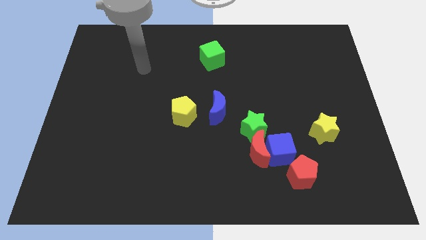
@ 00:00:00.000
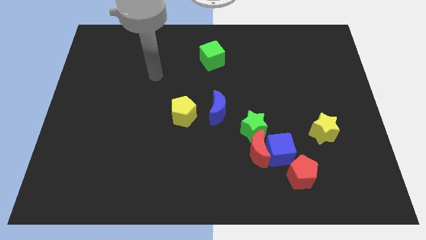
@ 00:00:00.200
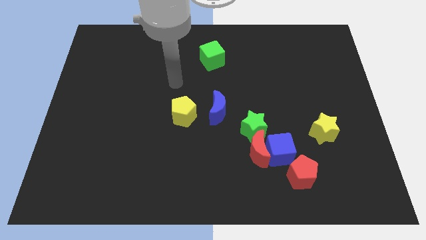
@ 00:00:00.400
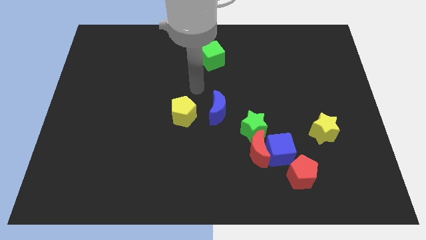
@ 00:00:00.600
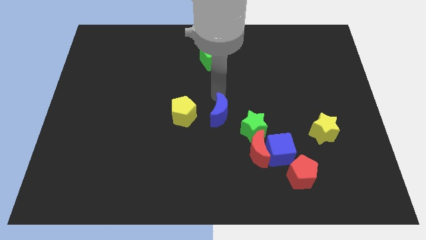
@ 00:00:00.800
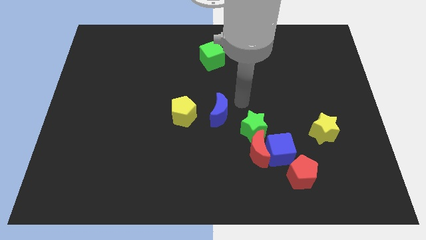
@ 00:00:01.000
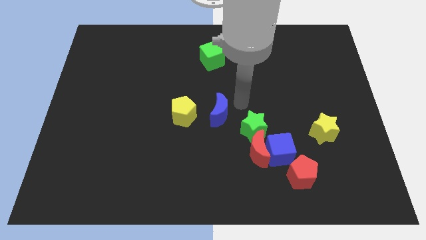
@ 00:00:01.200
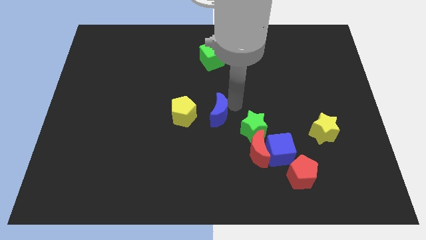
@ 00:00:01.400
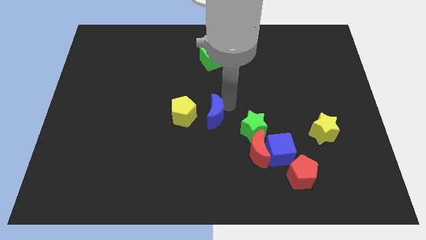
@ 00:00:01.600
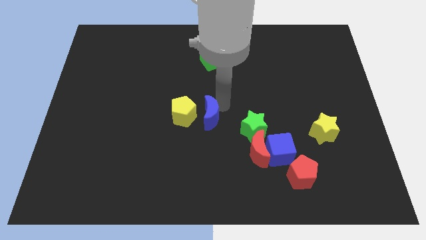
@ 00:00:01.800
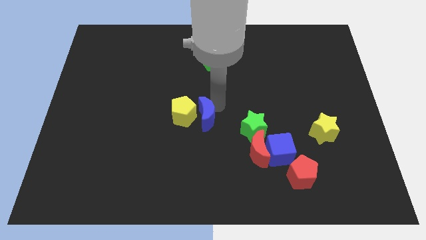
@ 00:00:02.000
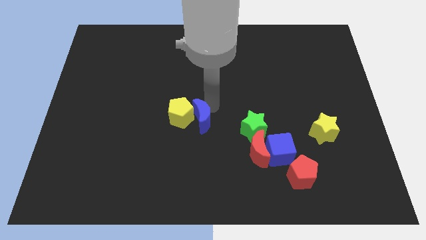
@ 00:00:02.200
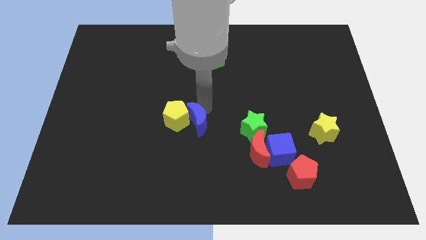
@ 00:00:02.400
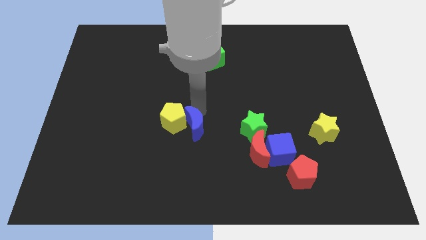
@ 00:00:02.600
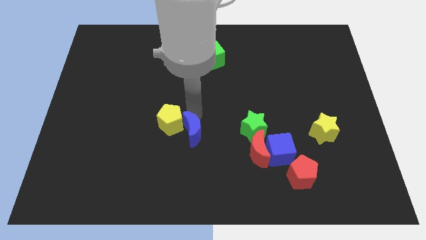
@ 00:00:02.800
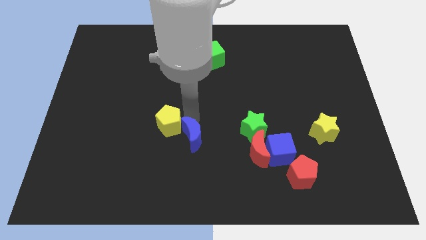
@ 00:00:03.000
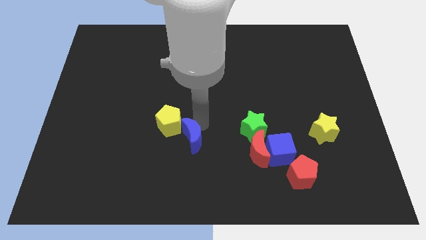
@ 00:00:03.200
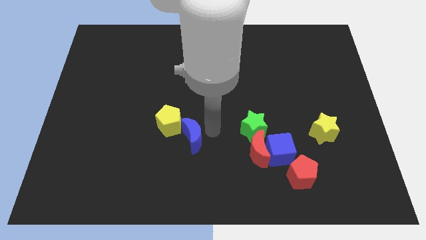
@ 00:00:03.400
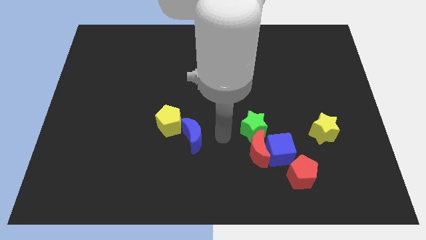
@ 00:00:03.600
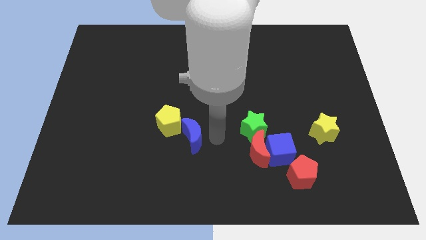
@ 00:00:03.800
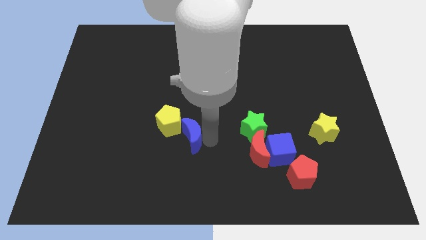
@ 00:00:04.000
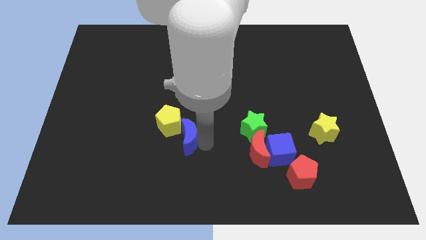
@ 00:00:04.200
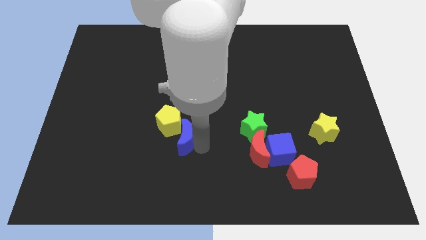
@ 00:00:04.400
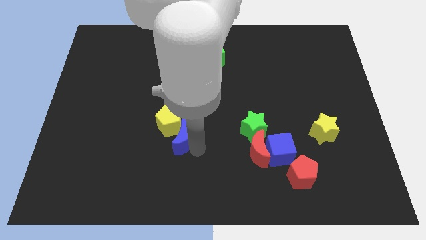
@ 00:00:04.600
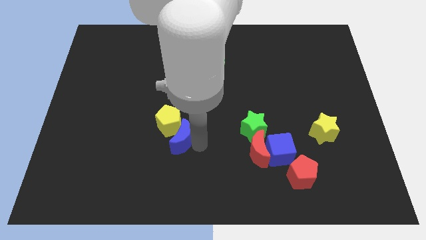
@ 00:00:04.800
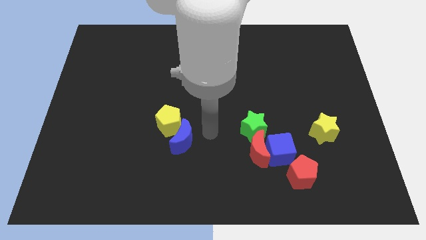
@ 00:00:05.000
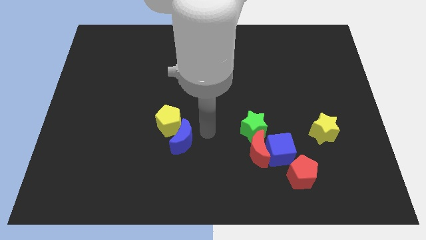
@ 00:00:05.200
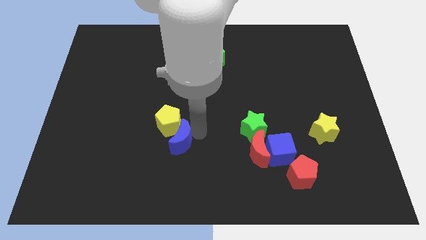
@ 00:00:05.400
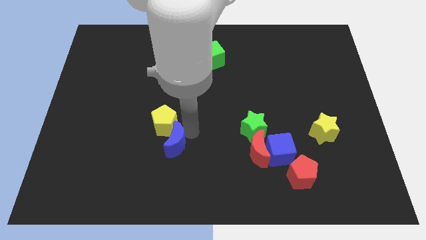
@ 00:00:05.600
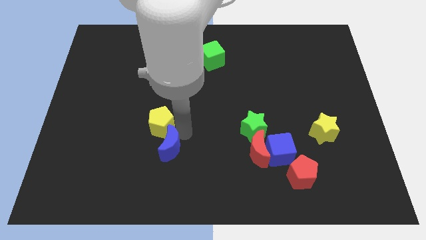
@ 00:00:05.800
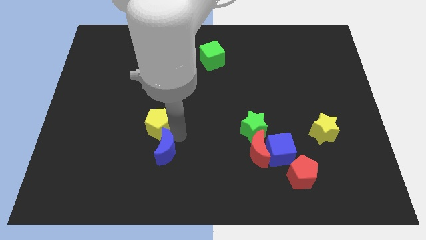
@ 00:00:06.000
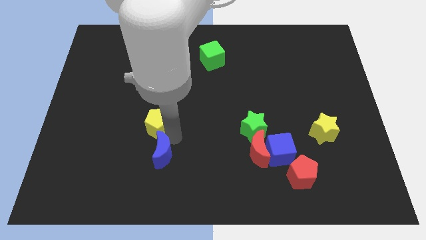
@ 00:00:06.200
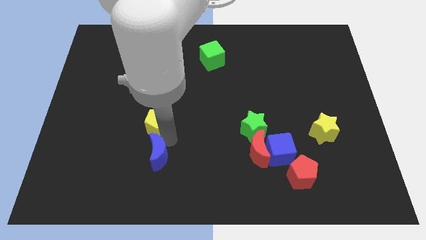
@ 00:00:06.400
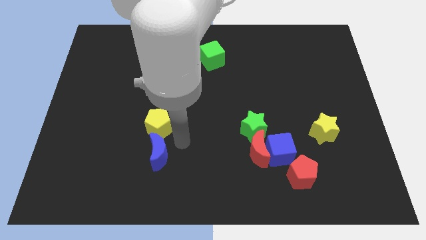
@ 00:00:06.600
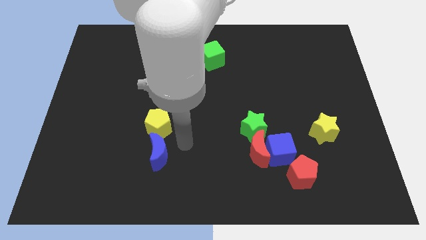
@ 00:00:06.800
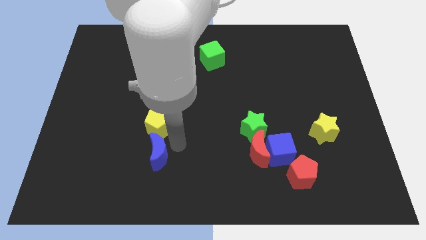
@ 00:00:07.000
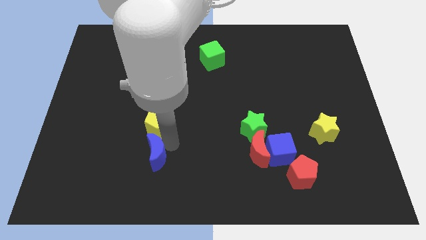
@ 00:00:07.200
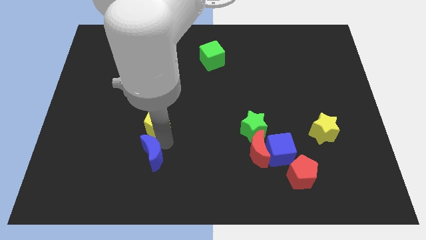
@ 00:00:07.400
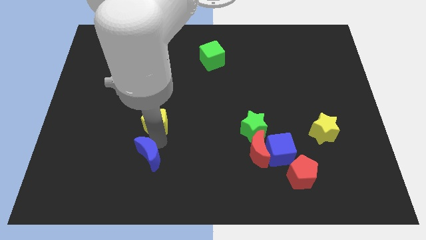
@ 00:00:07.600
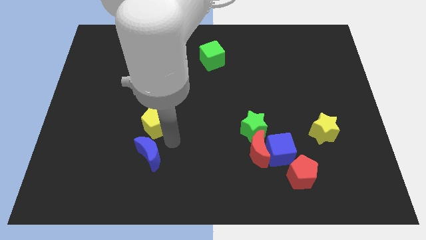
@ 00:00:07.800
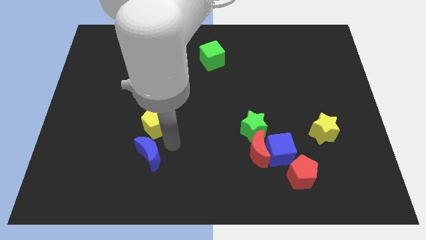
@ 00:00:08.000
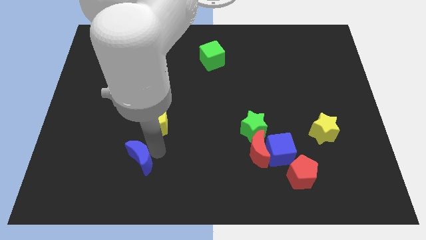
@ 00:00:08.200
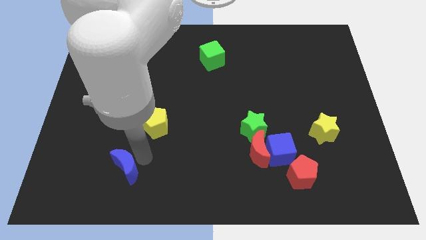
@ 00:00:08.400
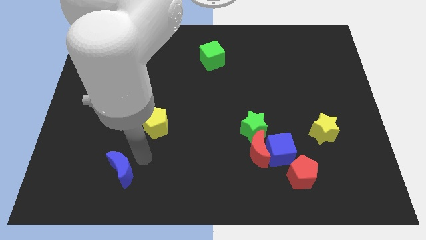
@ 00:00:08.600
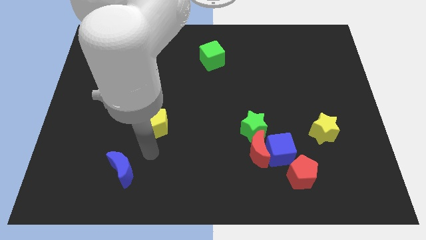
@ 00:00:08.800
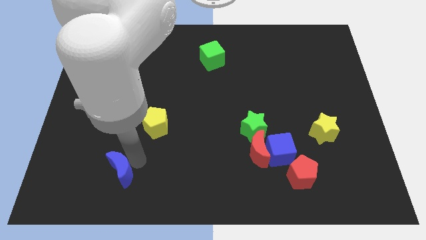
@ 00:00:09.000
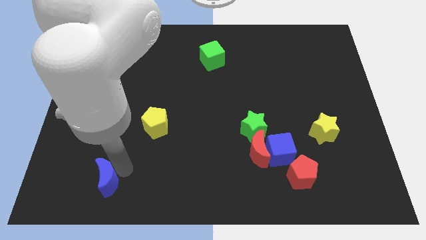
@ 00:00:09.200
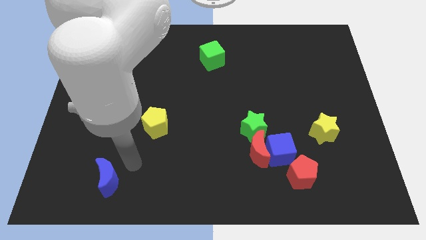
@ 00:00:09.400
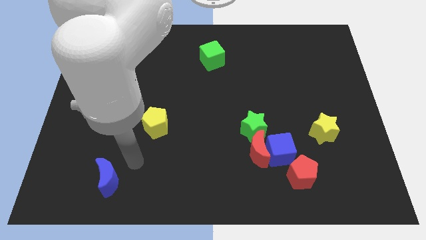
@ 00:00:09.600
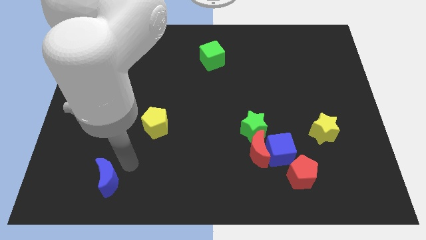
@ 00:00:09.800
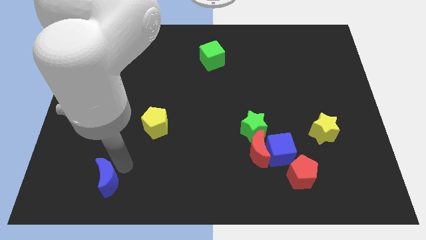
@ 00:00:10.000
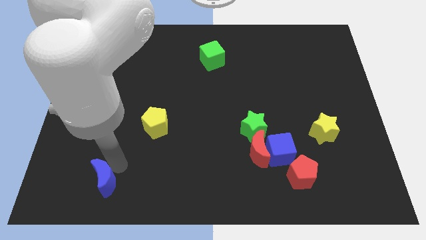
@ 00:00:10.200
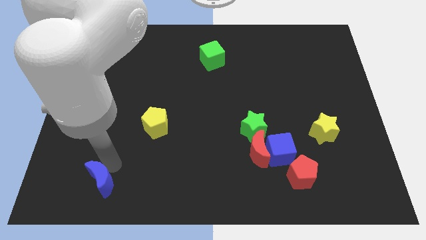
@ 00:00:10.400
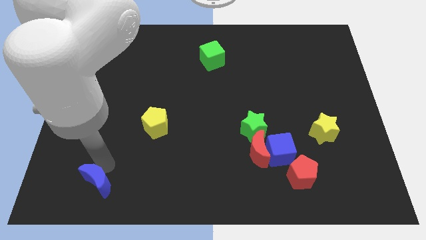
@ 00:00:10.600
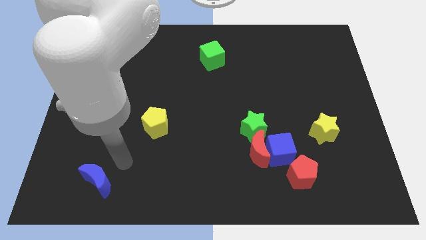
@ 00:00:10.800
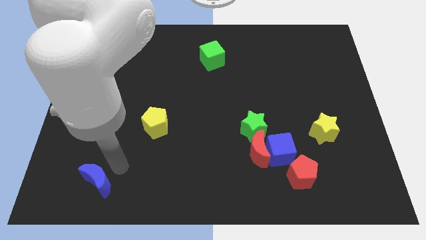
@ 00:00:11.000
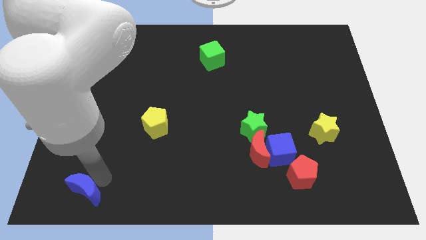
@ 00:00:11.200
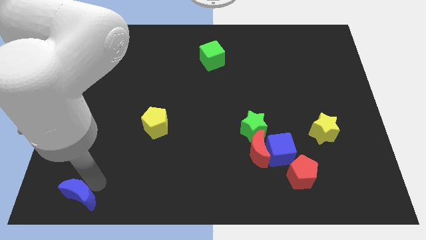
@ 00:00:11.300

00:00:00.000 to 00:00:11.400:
push the blue moon to the bottom left of the board
